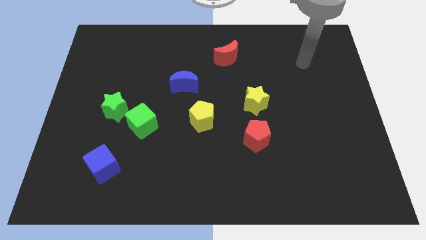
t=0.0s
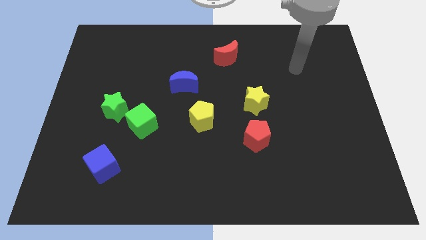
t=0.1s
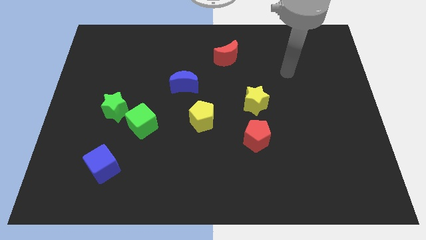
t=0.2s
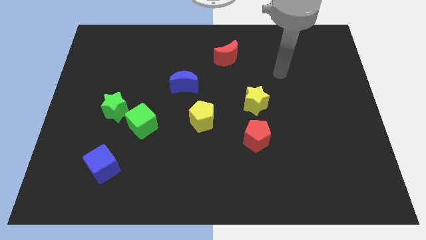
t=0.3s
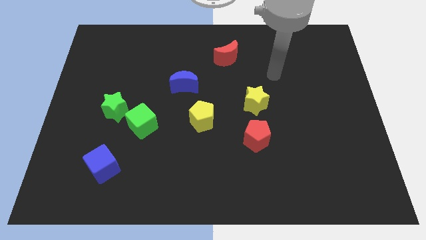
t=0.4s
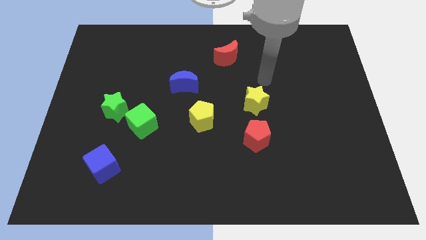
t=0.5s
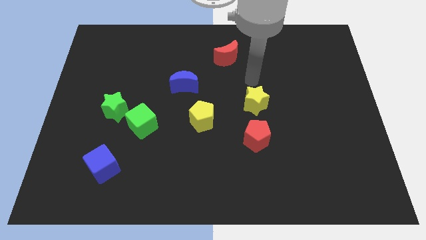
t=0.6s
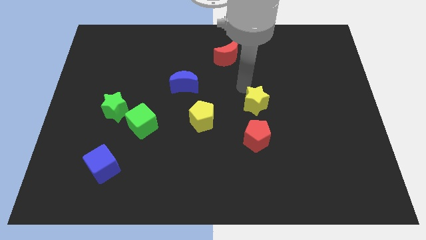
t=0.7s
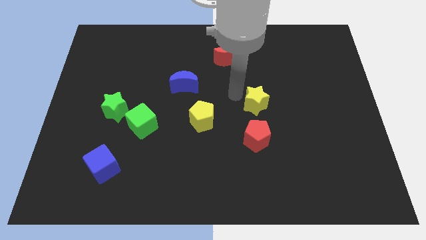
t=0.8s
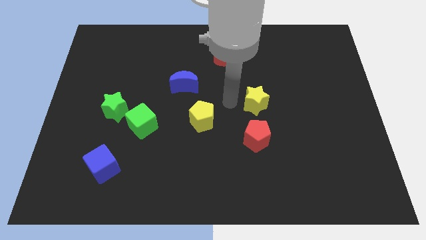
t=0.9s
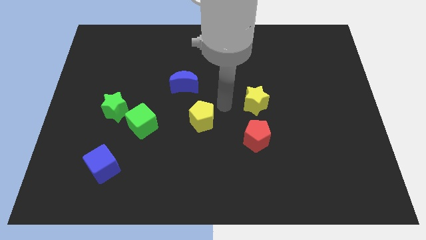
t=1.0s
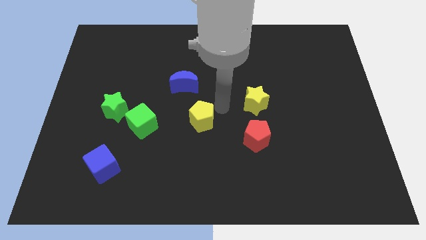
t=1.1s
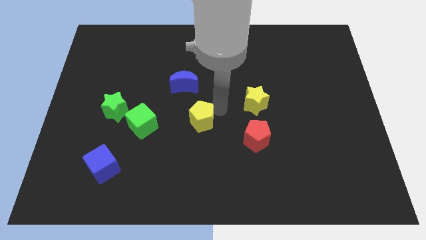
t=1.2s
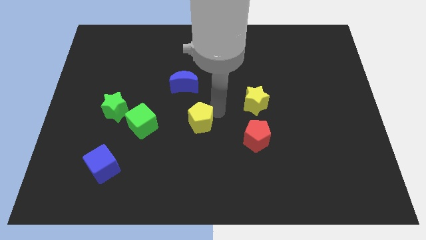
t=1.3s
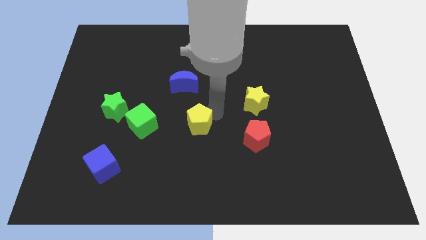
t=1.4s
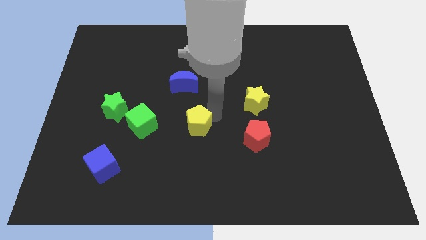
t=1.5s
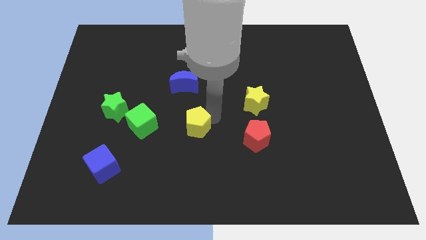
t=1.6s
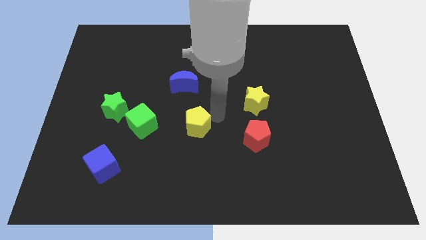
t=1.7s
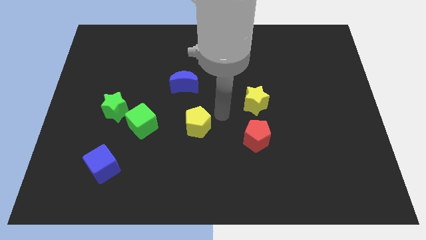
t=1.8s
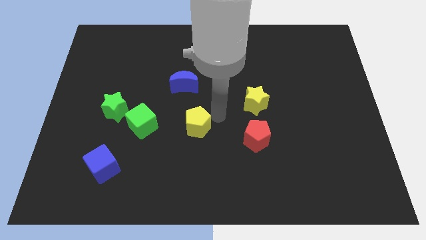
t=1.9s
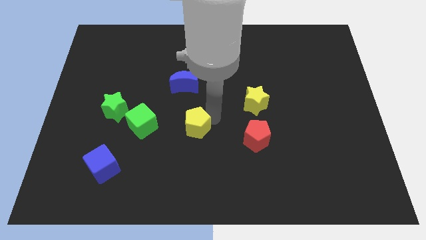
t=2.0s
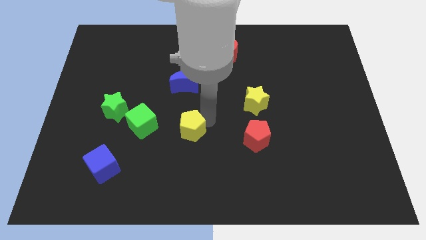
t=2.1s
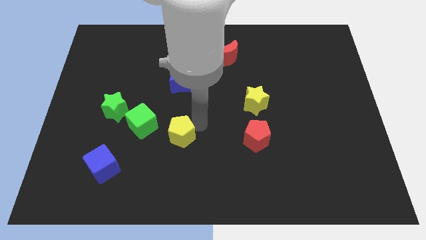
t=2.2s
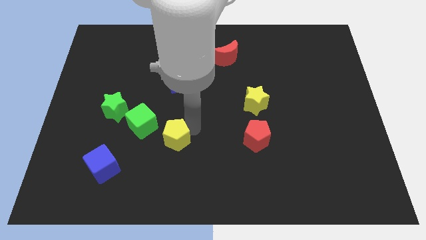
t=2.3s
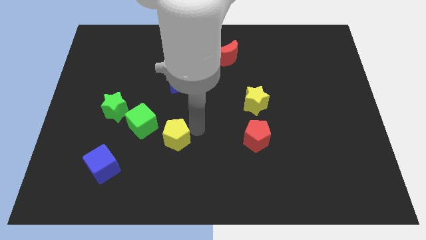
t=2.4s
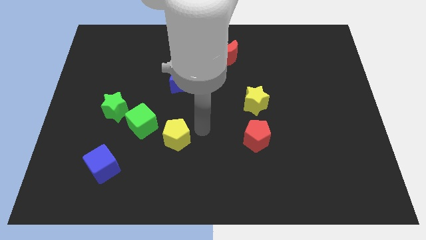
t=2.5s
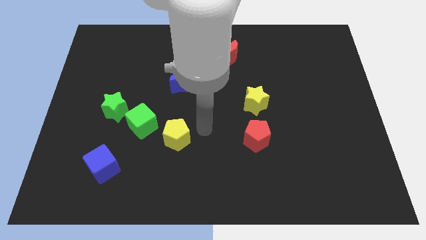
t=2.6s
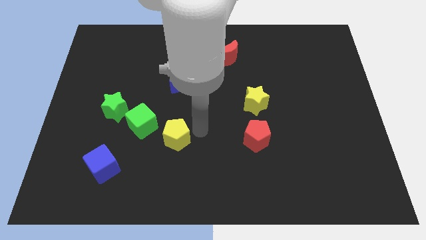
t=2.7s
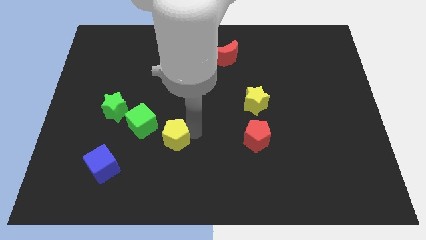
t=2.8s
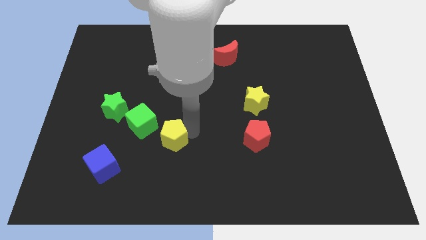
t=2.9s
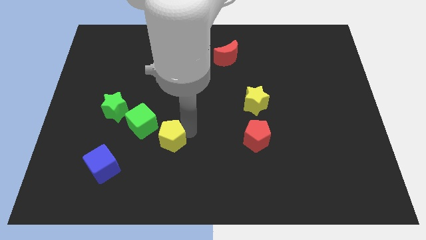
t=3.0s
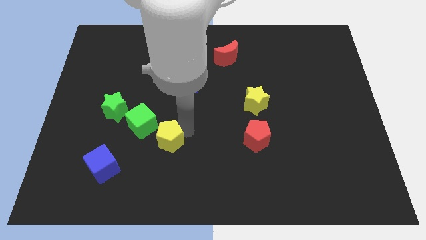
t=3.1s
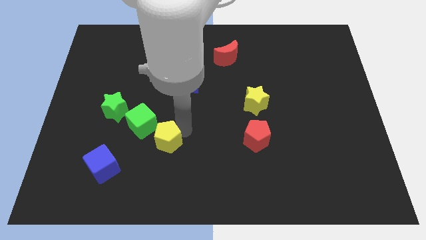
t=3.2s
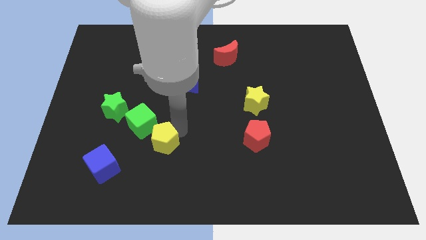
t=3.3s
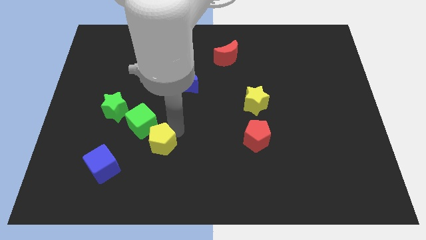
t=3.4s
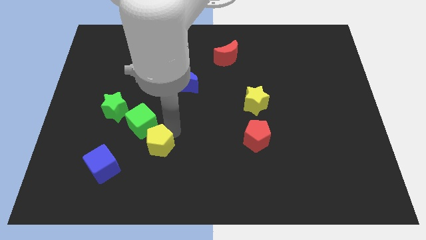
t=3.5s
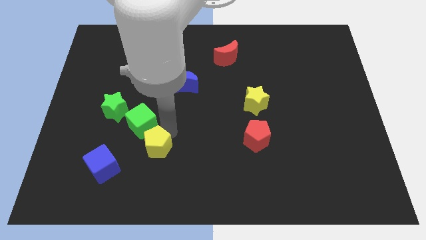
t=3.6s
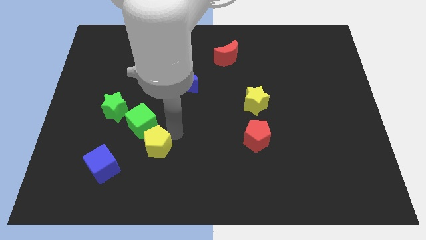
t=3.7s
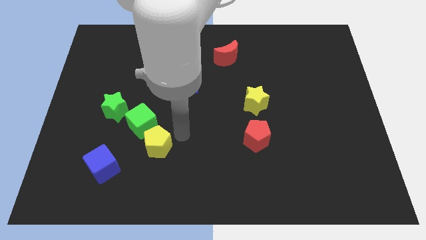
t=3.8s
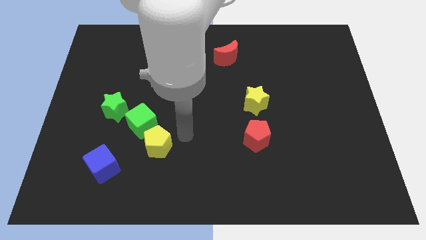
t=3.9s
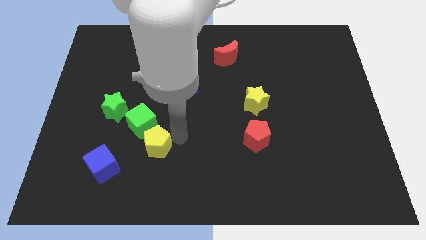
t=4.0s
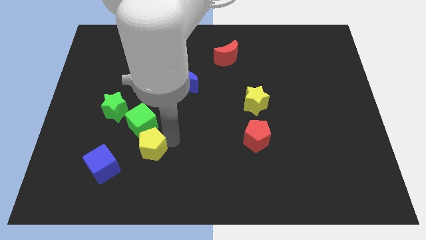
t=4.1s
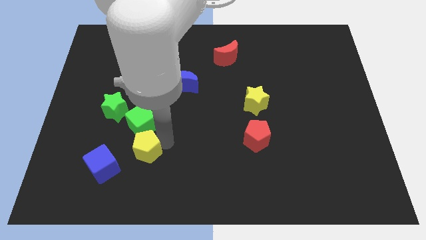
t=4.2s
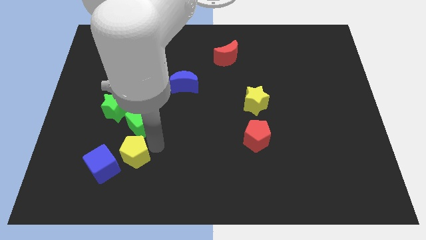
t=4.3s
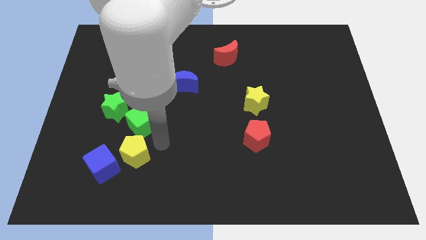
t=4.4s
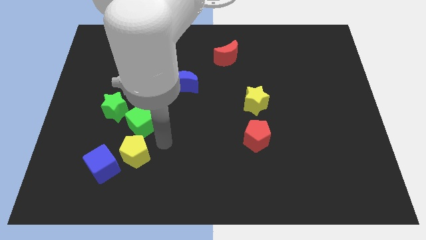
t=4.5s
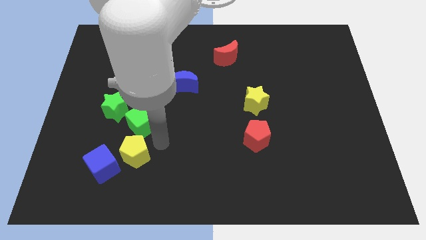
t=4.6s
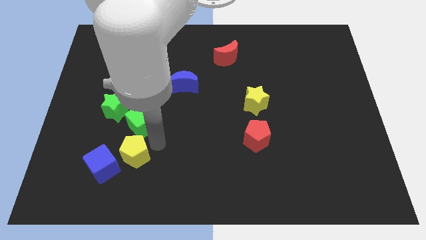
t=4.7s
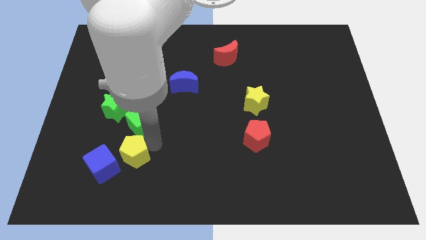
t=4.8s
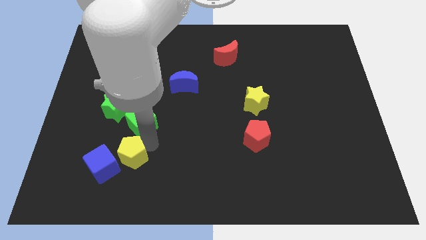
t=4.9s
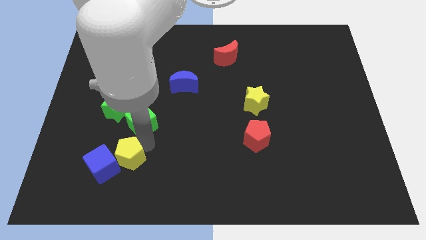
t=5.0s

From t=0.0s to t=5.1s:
push the yellow pentagon to the blue cube

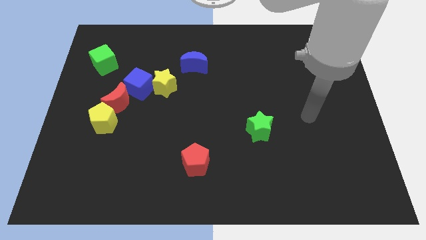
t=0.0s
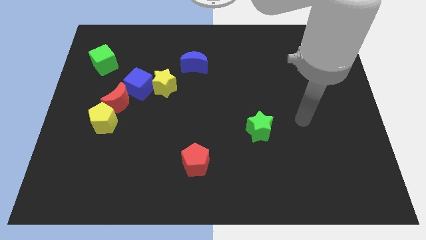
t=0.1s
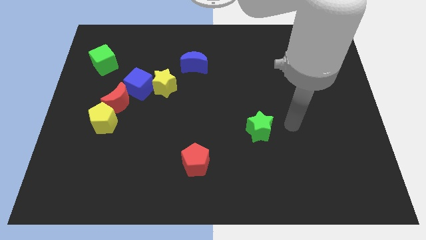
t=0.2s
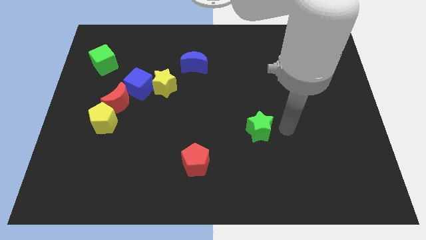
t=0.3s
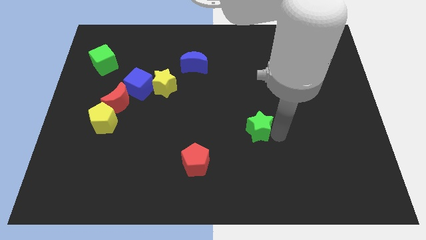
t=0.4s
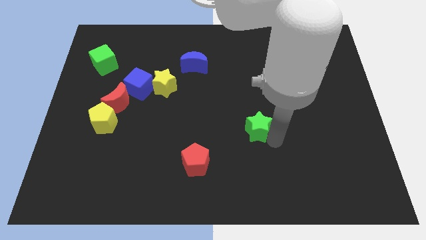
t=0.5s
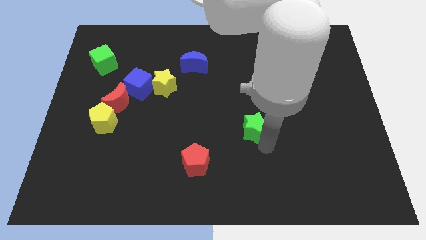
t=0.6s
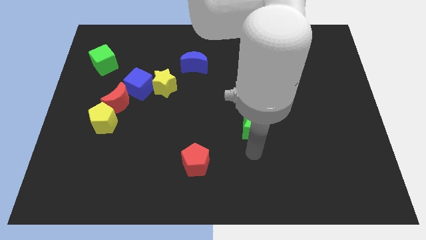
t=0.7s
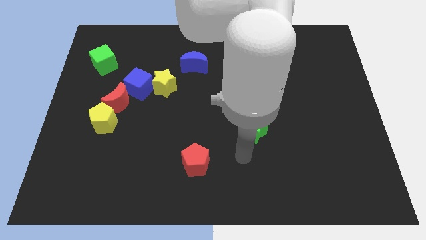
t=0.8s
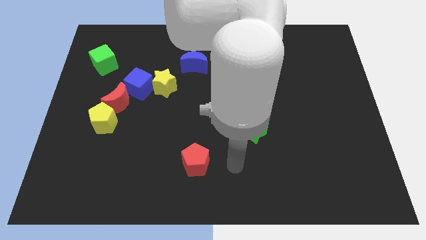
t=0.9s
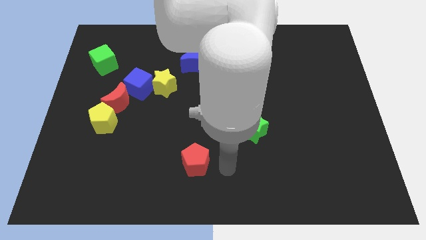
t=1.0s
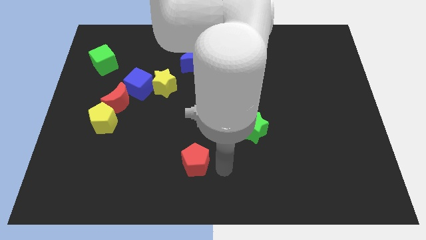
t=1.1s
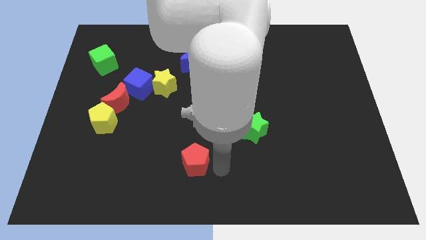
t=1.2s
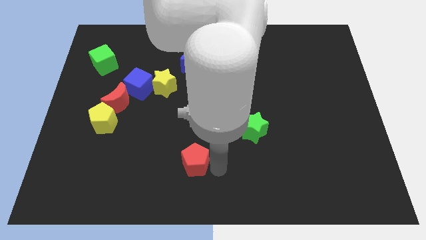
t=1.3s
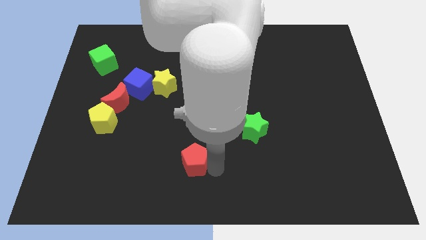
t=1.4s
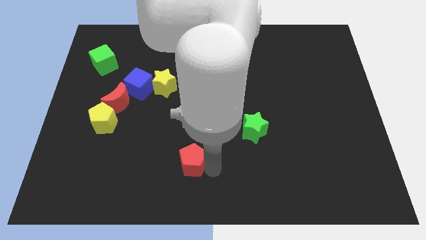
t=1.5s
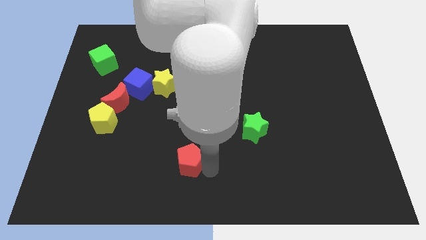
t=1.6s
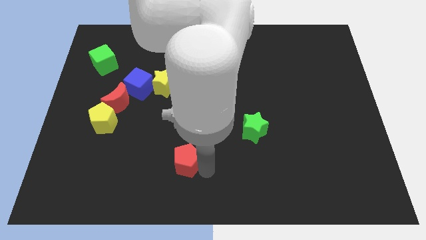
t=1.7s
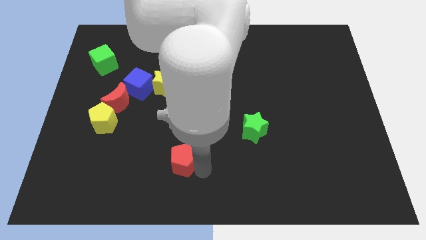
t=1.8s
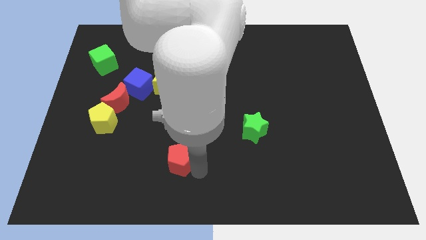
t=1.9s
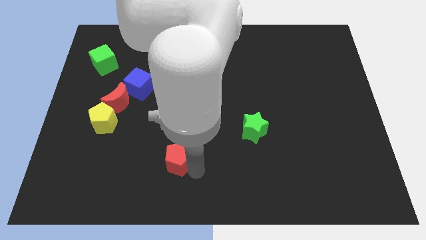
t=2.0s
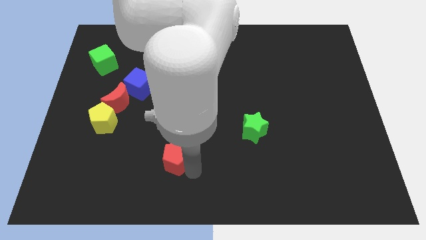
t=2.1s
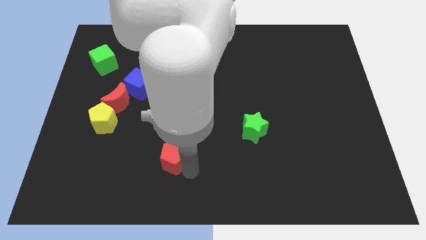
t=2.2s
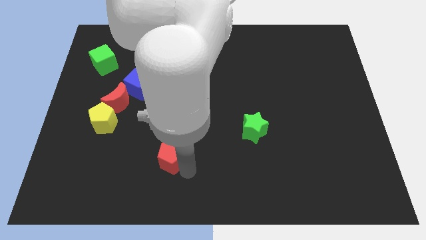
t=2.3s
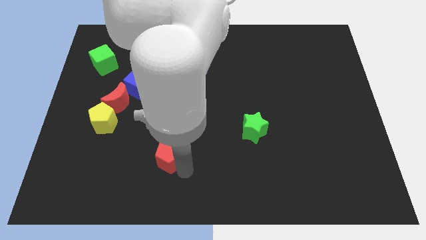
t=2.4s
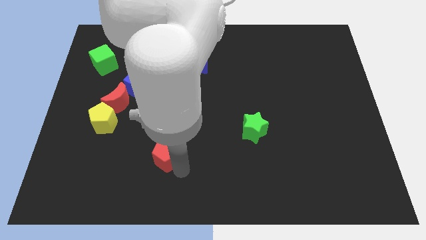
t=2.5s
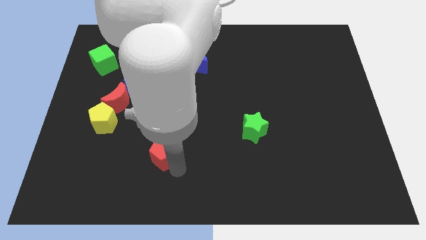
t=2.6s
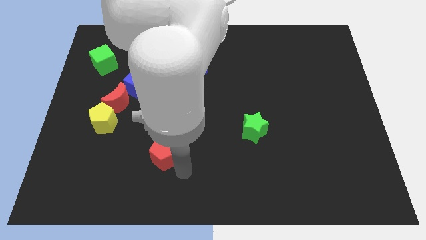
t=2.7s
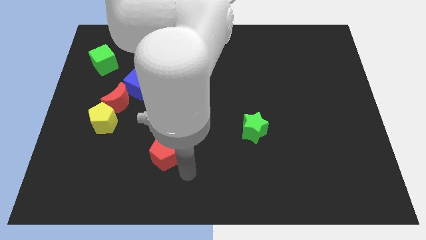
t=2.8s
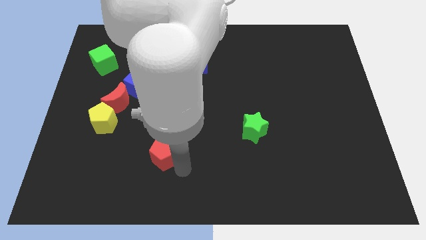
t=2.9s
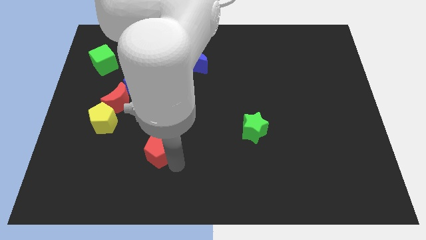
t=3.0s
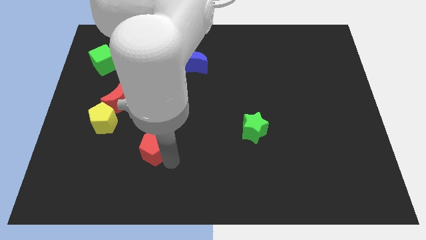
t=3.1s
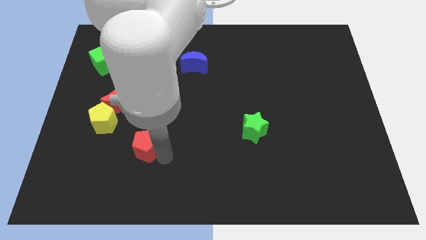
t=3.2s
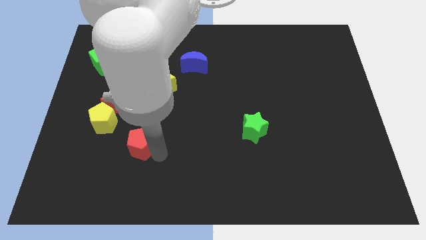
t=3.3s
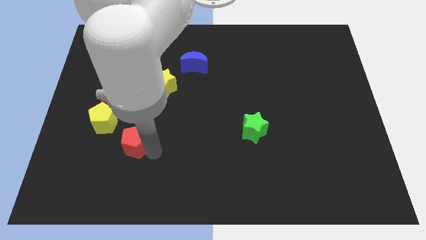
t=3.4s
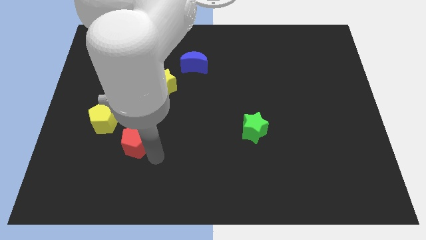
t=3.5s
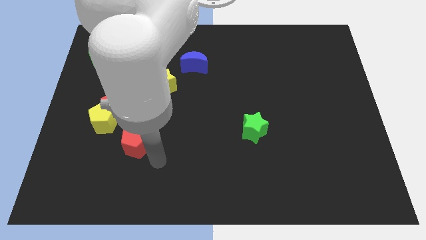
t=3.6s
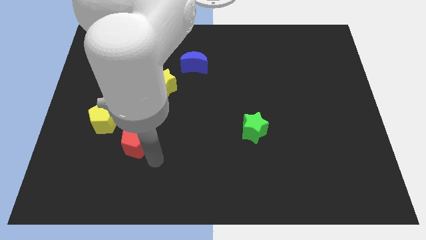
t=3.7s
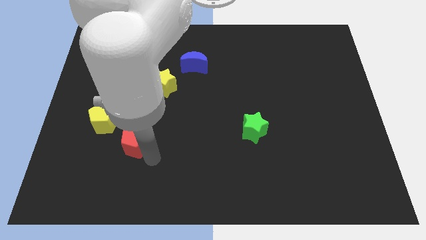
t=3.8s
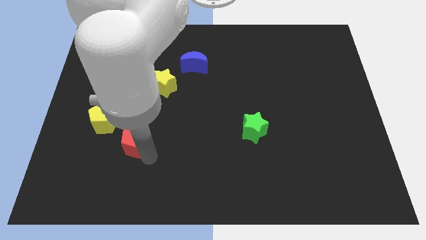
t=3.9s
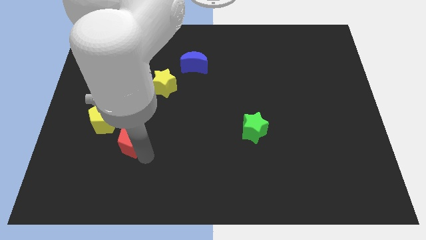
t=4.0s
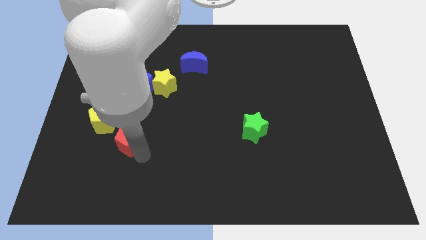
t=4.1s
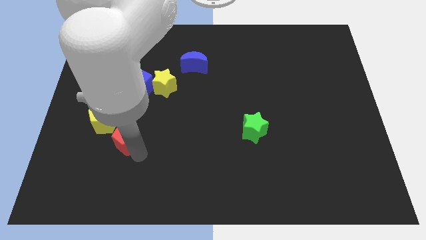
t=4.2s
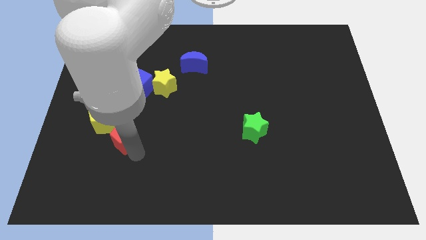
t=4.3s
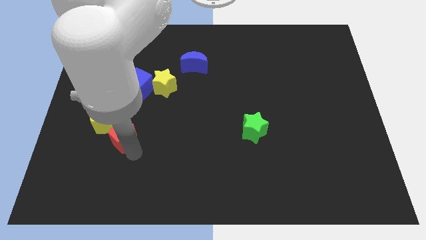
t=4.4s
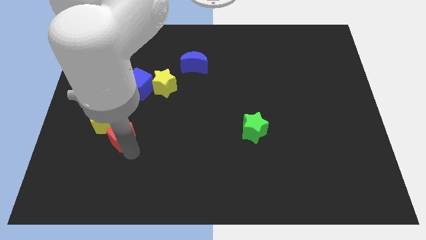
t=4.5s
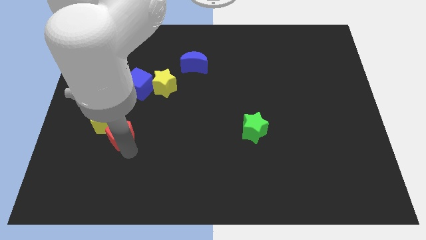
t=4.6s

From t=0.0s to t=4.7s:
put the red pentagon to the yellow pentagon
